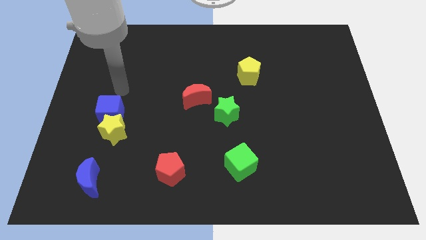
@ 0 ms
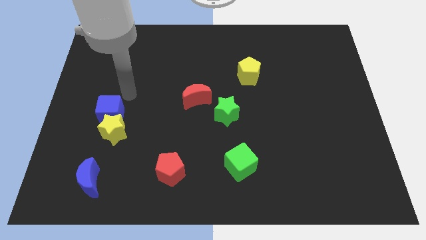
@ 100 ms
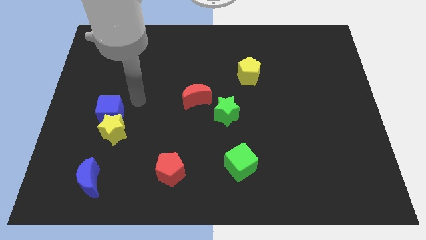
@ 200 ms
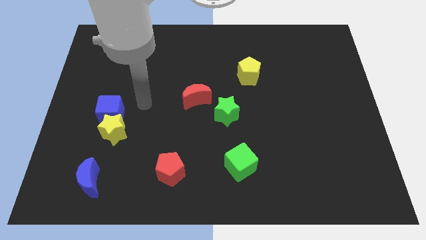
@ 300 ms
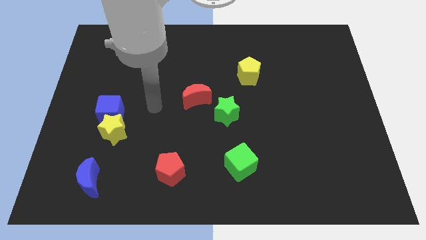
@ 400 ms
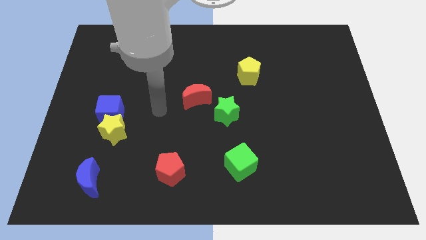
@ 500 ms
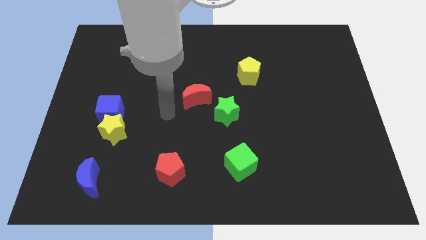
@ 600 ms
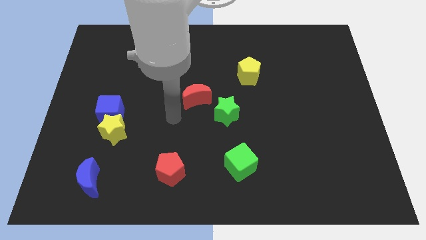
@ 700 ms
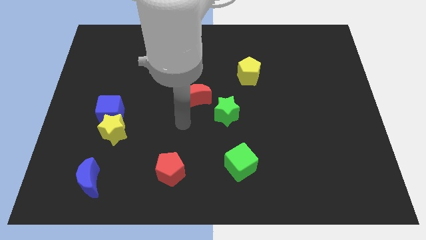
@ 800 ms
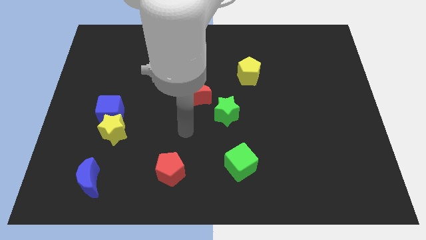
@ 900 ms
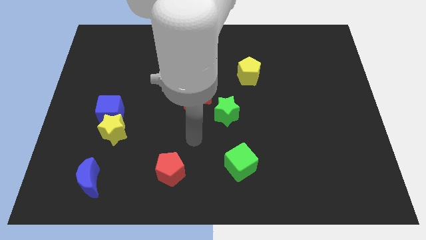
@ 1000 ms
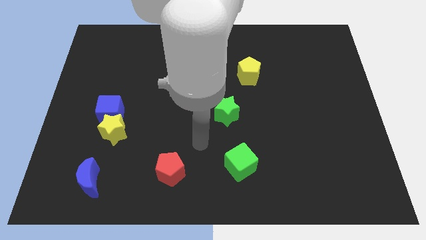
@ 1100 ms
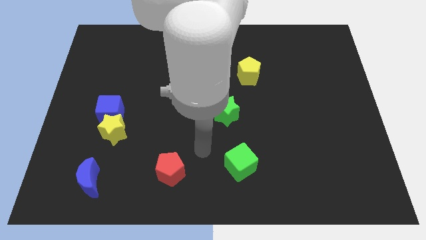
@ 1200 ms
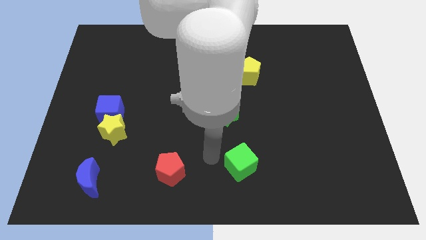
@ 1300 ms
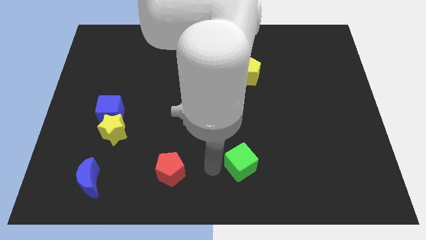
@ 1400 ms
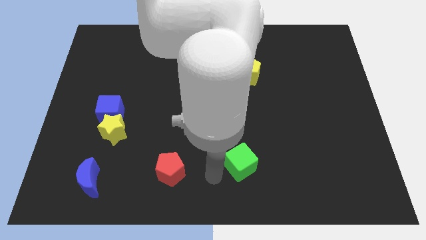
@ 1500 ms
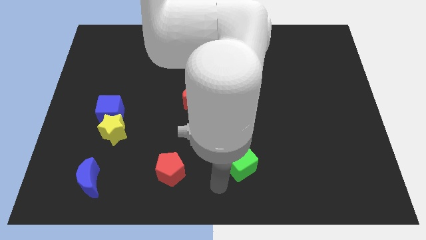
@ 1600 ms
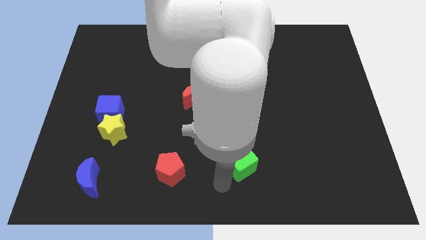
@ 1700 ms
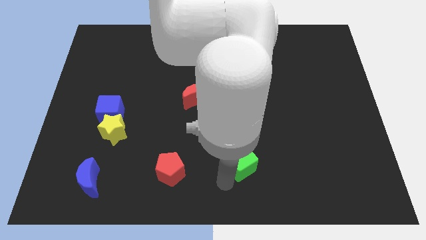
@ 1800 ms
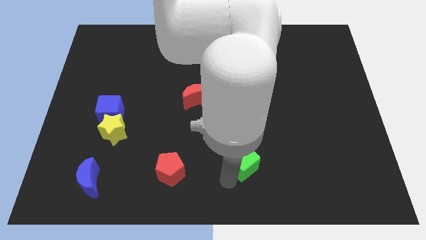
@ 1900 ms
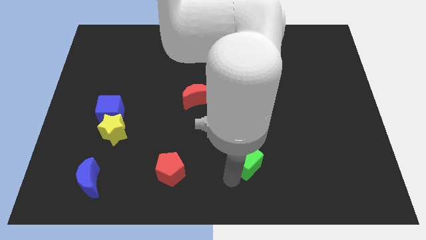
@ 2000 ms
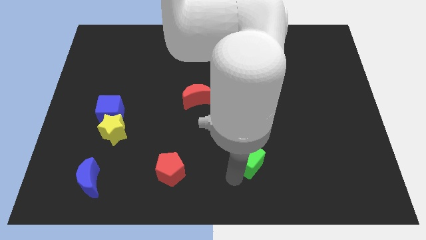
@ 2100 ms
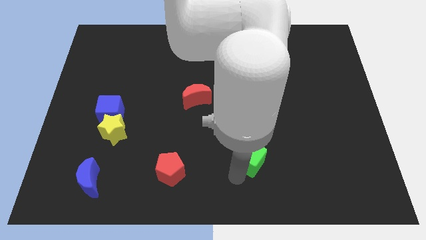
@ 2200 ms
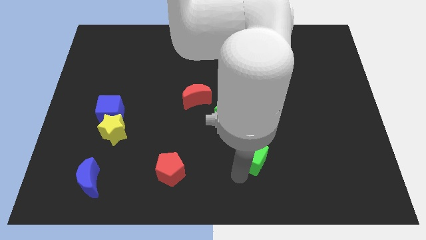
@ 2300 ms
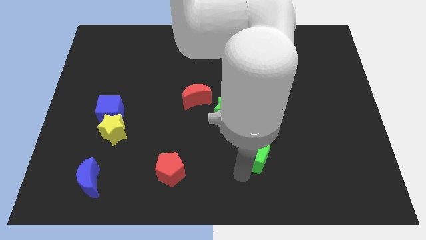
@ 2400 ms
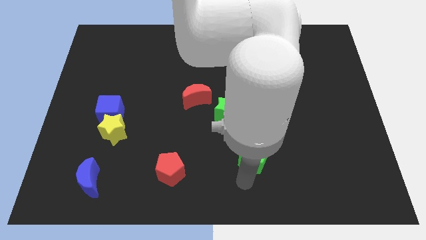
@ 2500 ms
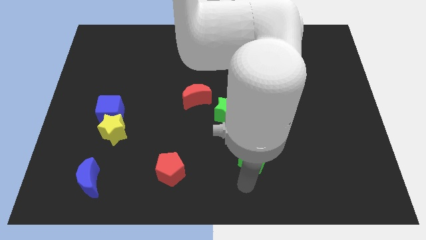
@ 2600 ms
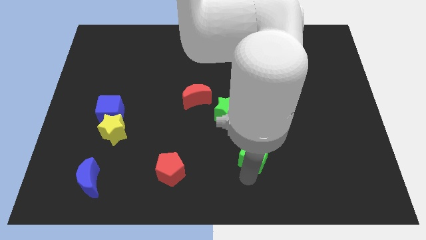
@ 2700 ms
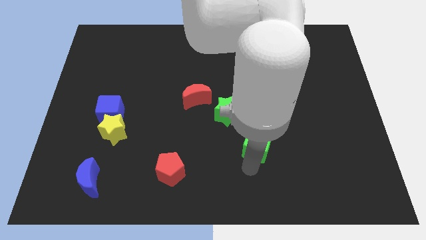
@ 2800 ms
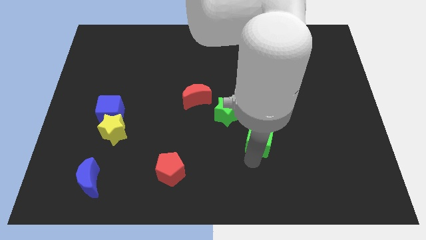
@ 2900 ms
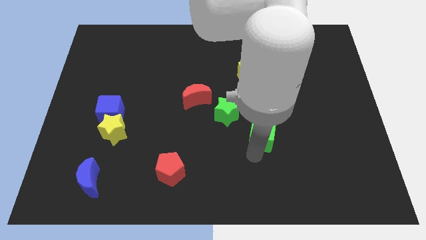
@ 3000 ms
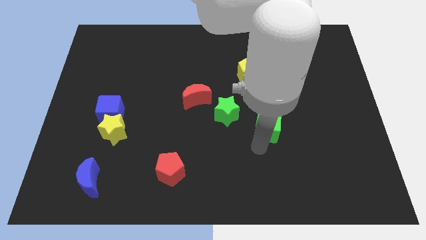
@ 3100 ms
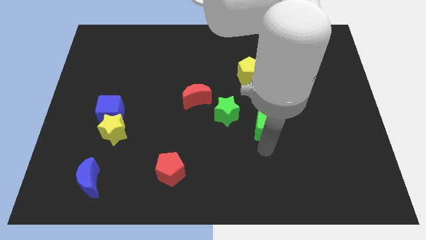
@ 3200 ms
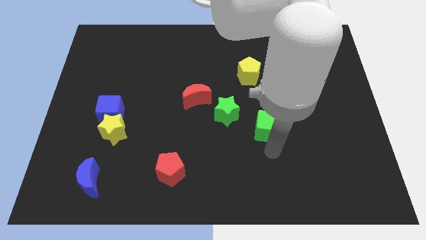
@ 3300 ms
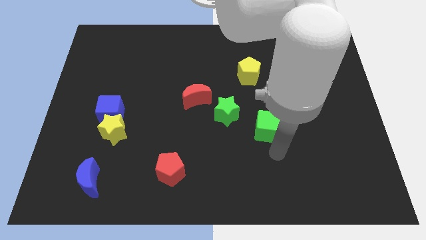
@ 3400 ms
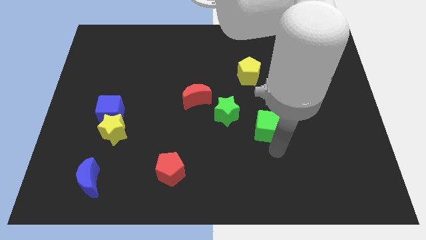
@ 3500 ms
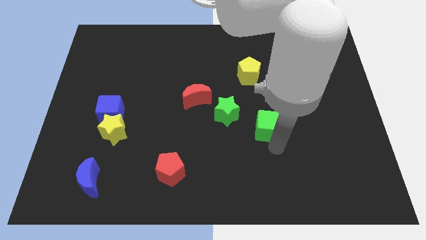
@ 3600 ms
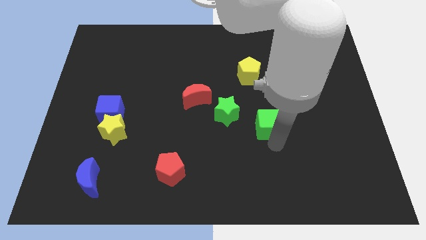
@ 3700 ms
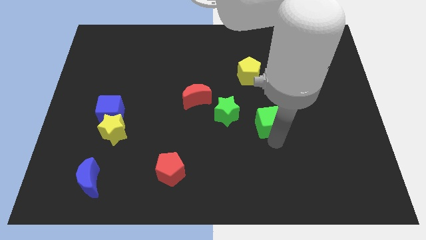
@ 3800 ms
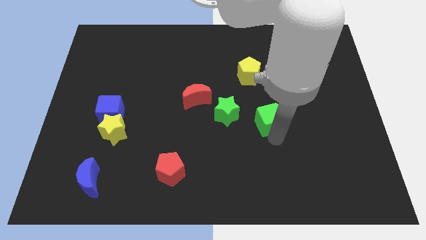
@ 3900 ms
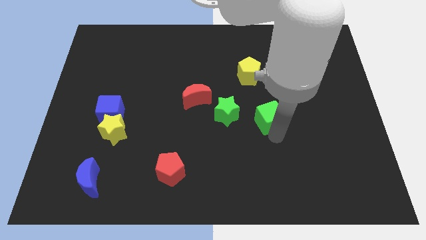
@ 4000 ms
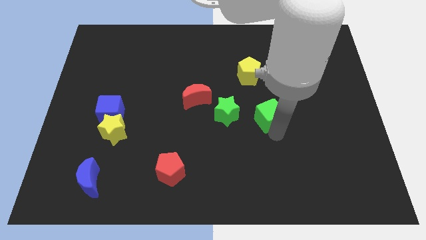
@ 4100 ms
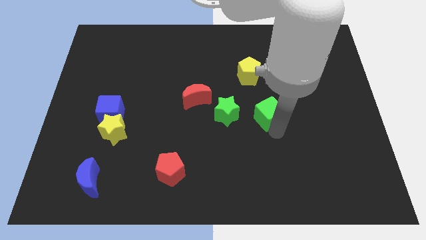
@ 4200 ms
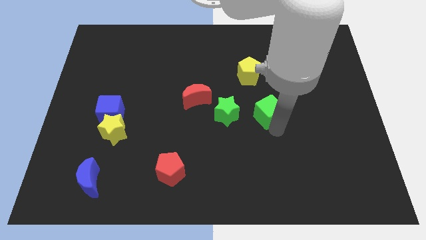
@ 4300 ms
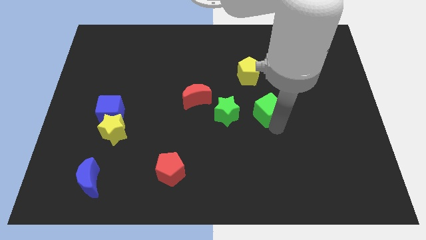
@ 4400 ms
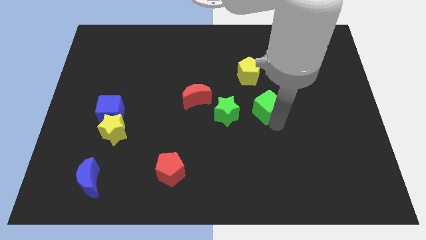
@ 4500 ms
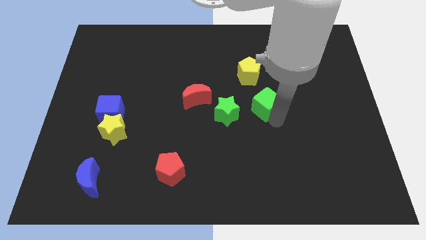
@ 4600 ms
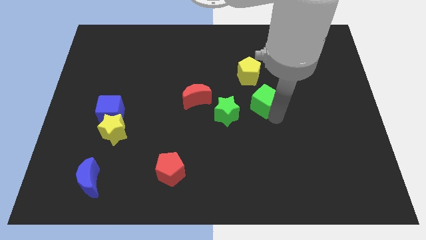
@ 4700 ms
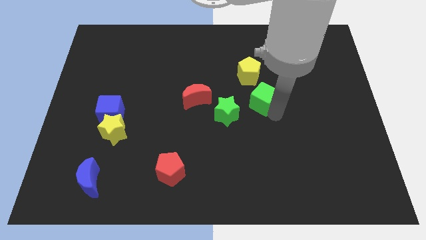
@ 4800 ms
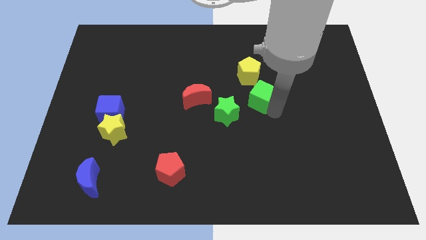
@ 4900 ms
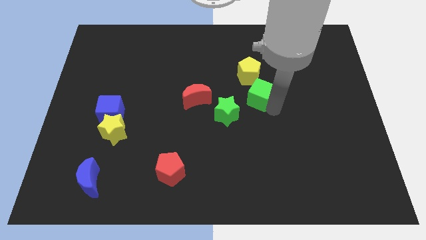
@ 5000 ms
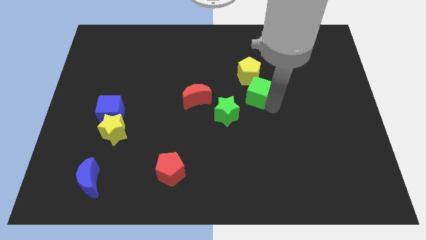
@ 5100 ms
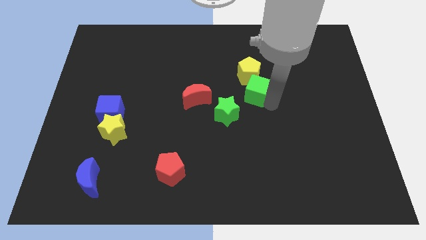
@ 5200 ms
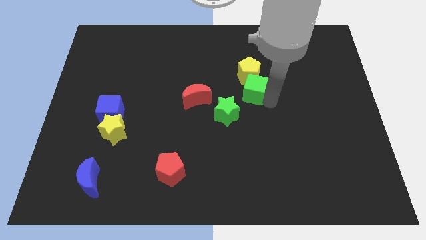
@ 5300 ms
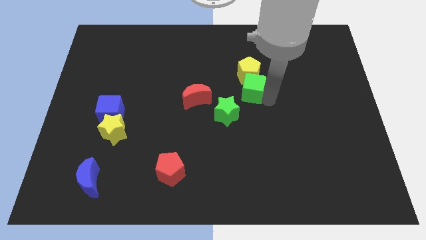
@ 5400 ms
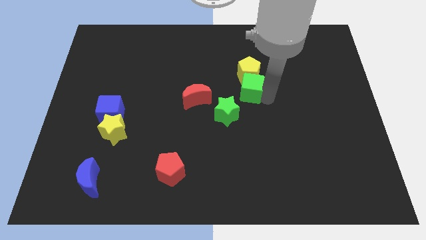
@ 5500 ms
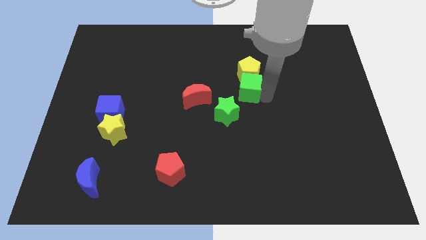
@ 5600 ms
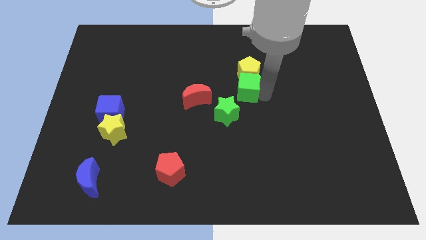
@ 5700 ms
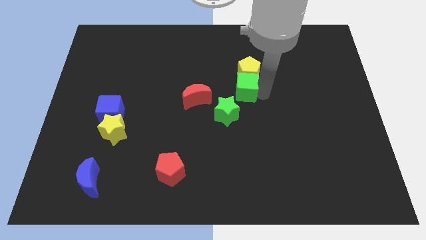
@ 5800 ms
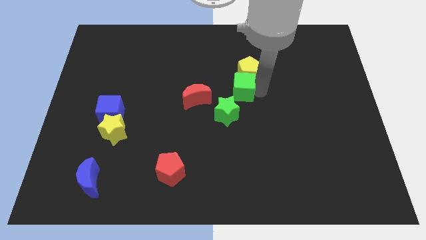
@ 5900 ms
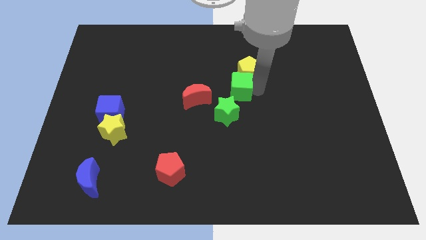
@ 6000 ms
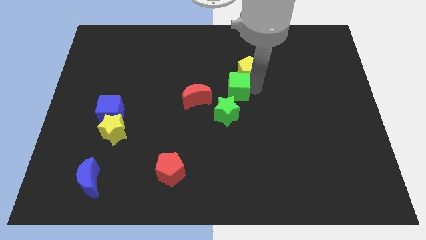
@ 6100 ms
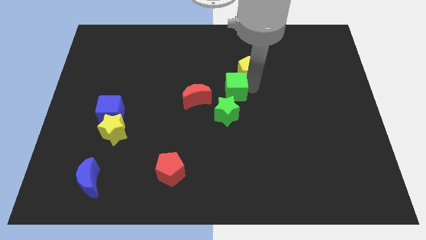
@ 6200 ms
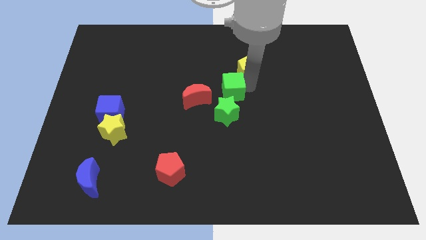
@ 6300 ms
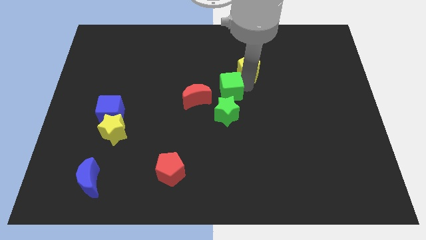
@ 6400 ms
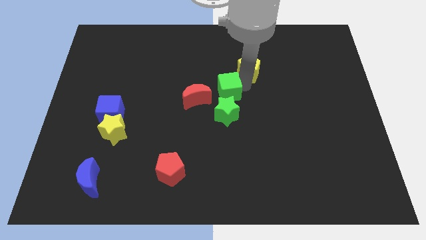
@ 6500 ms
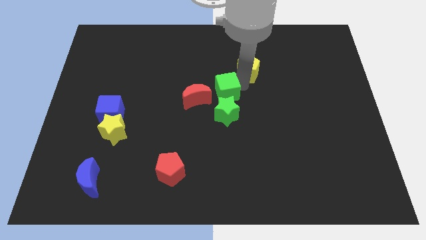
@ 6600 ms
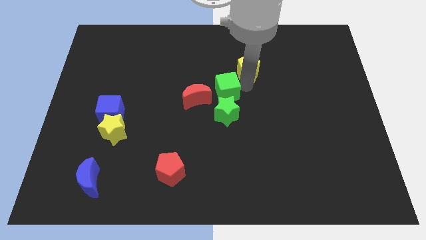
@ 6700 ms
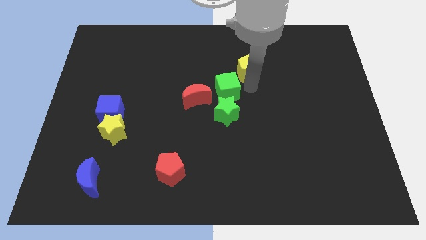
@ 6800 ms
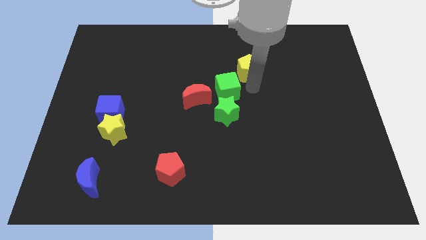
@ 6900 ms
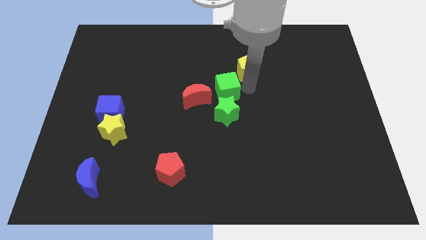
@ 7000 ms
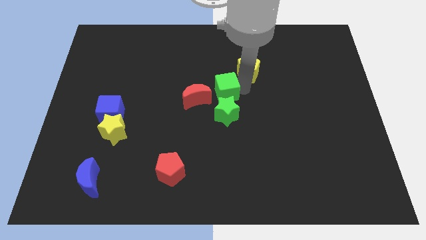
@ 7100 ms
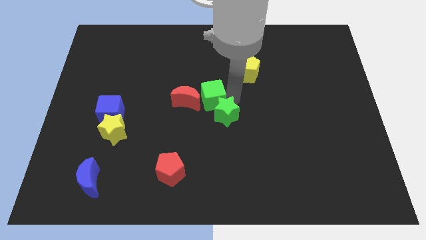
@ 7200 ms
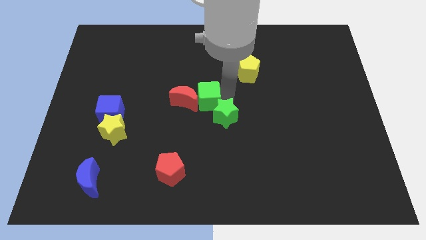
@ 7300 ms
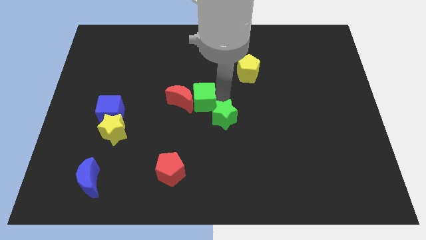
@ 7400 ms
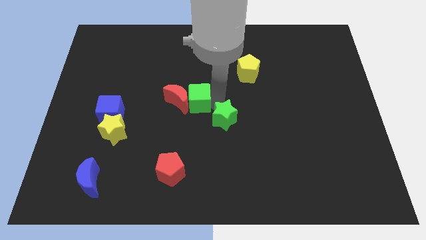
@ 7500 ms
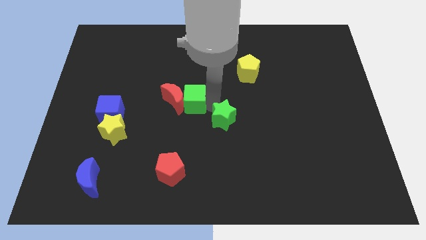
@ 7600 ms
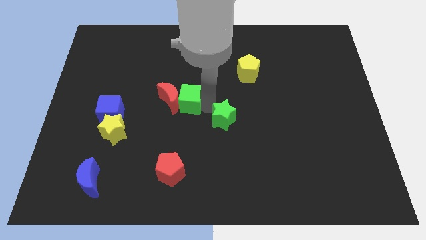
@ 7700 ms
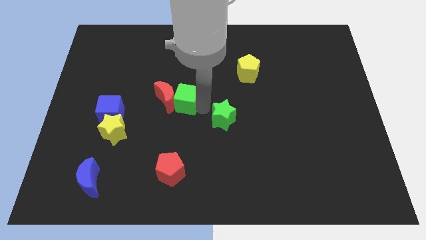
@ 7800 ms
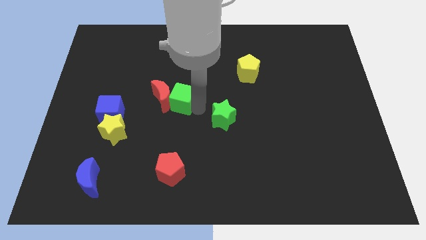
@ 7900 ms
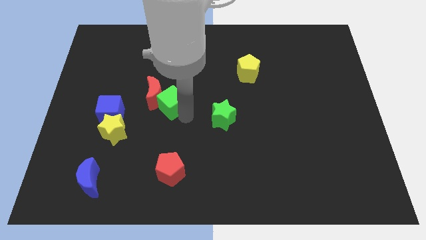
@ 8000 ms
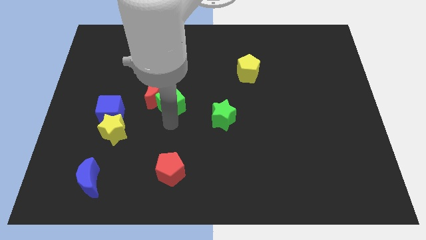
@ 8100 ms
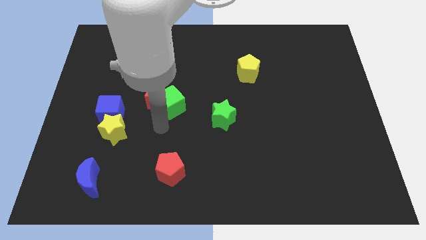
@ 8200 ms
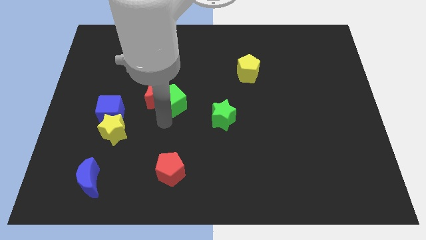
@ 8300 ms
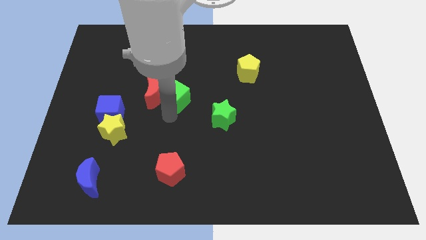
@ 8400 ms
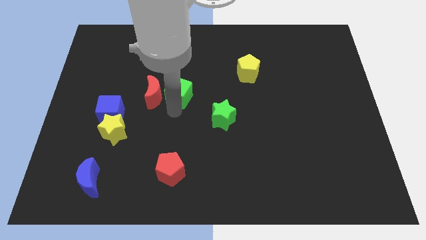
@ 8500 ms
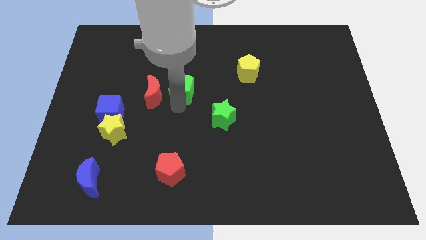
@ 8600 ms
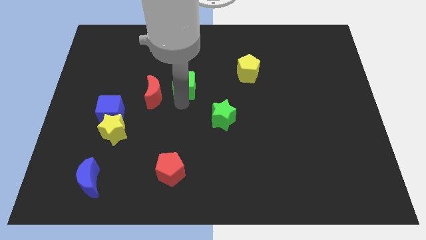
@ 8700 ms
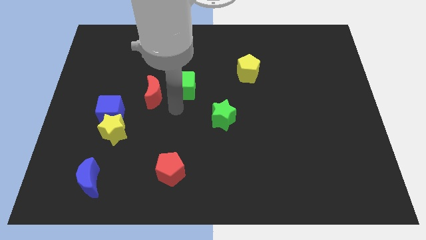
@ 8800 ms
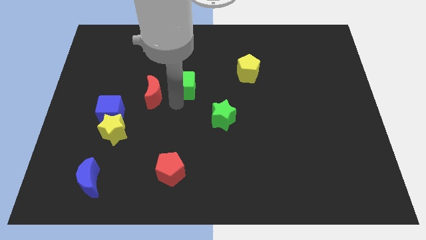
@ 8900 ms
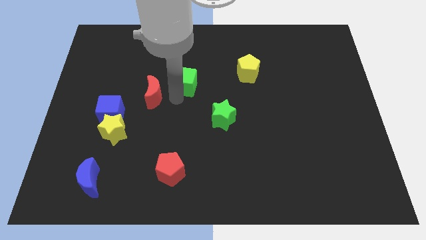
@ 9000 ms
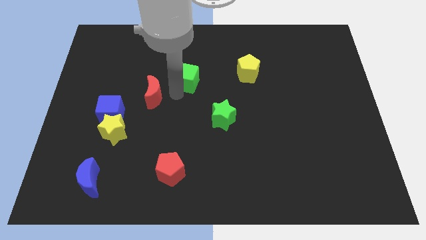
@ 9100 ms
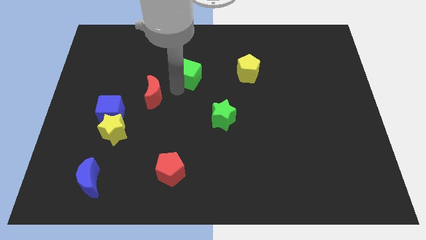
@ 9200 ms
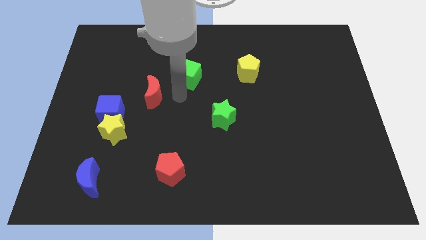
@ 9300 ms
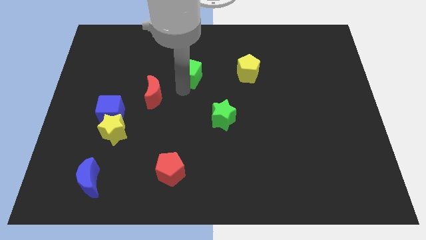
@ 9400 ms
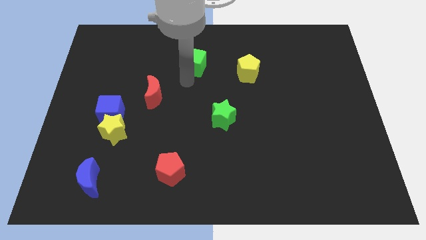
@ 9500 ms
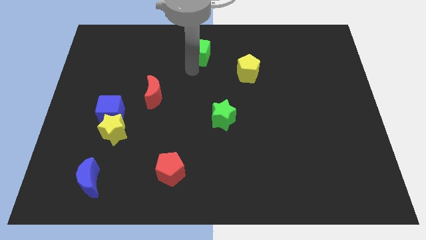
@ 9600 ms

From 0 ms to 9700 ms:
push the green cube to the towards your base
